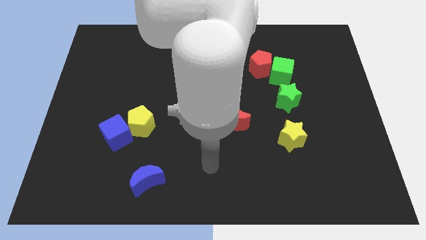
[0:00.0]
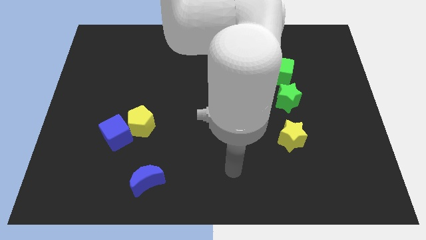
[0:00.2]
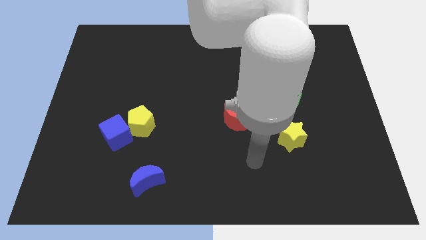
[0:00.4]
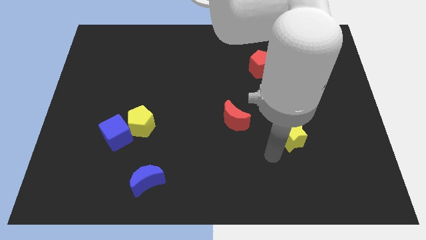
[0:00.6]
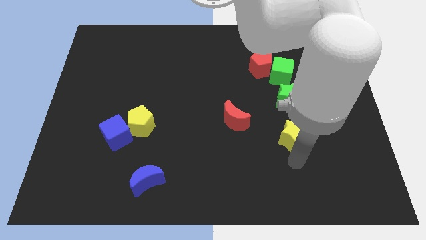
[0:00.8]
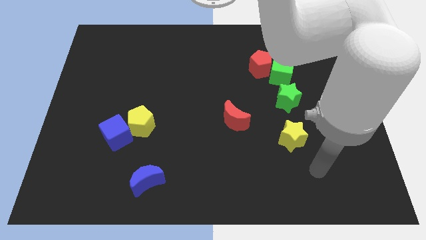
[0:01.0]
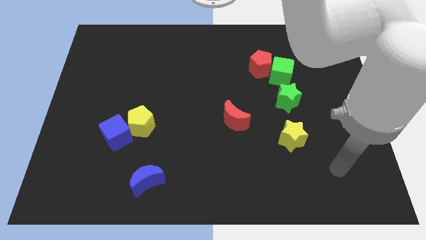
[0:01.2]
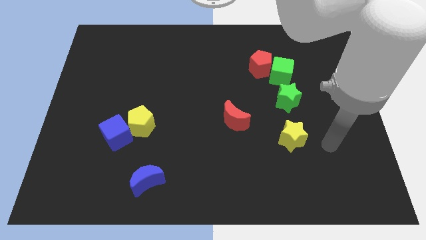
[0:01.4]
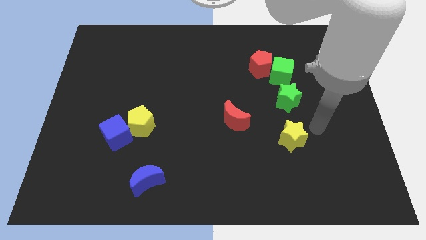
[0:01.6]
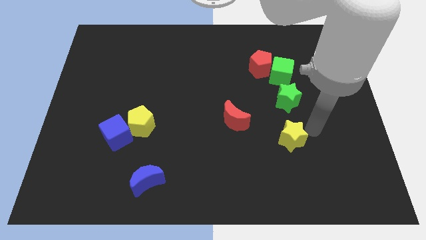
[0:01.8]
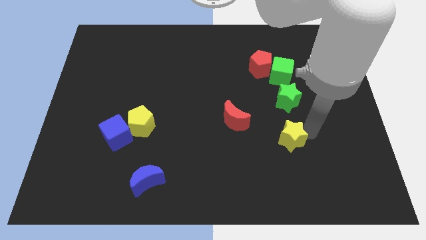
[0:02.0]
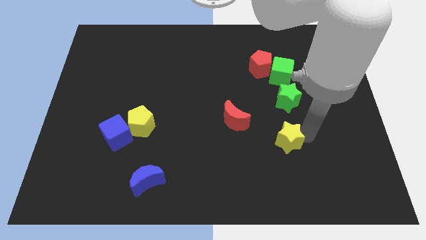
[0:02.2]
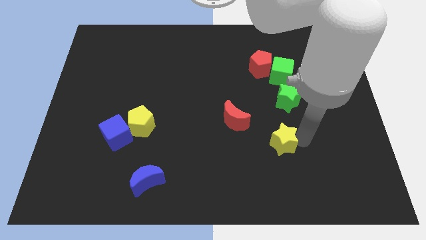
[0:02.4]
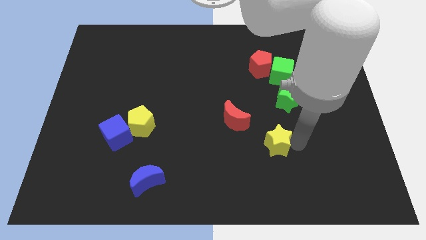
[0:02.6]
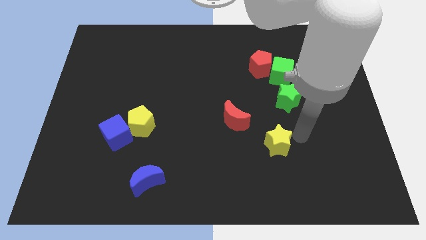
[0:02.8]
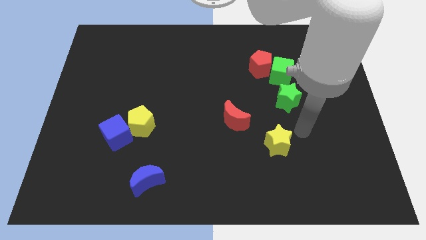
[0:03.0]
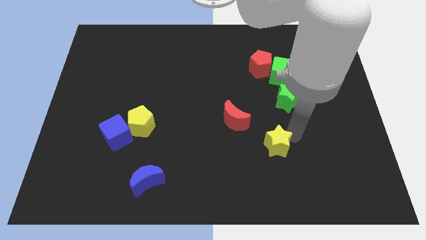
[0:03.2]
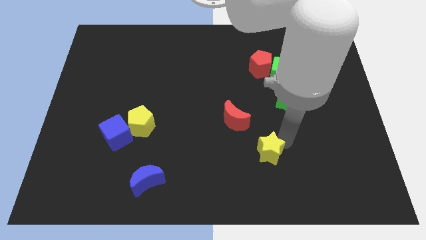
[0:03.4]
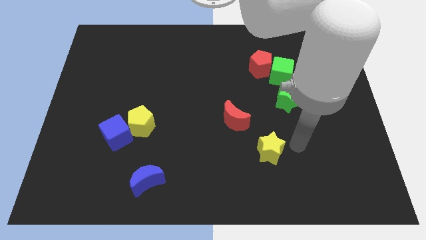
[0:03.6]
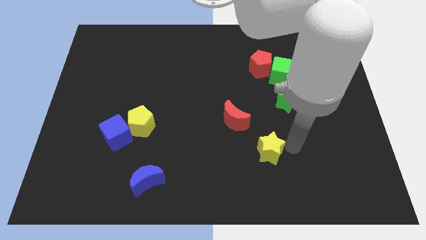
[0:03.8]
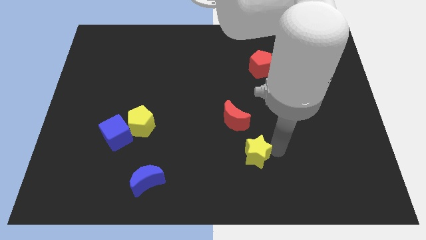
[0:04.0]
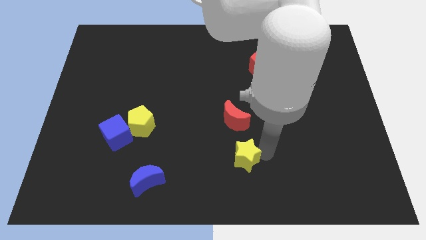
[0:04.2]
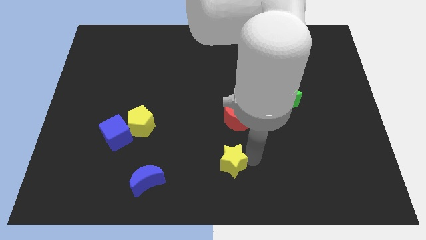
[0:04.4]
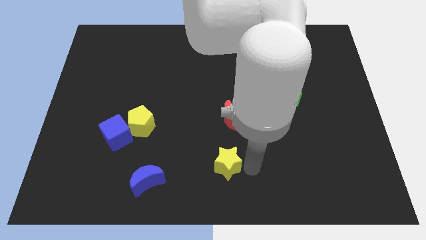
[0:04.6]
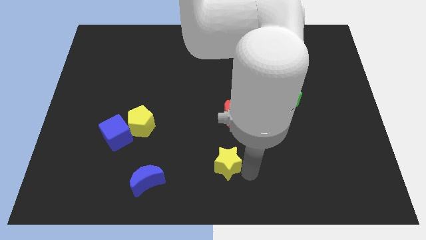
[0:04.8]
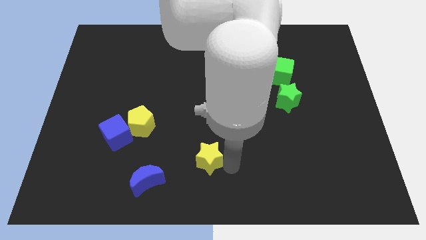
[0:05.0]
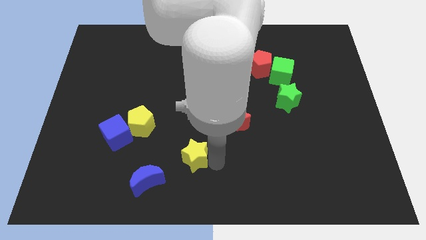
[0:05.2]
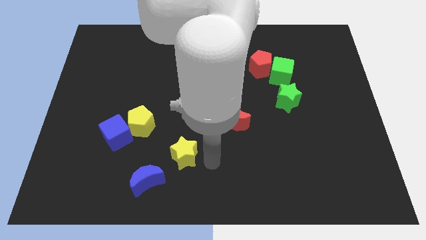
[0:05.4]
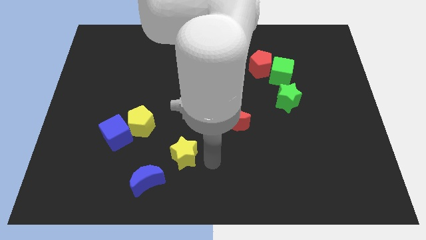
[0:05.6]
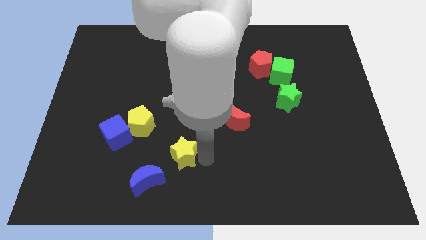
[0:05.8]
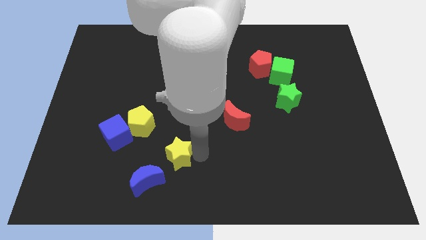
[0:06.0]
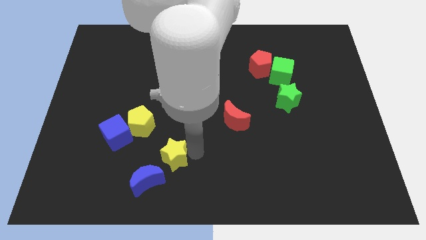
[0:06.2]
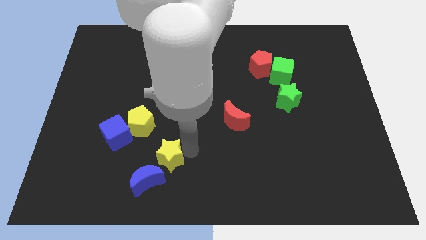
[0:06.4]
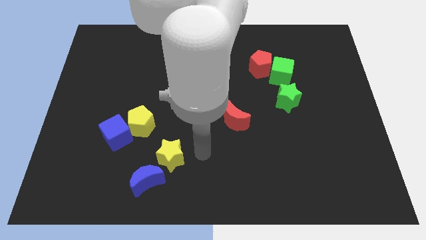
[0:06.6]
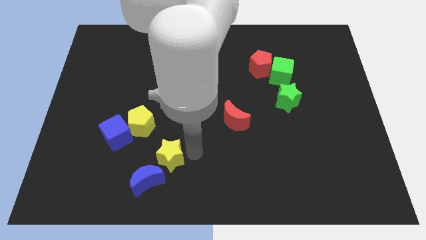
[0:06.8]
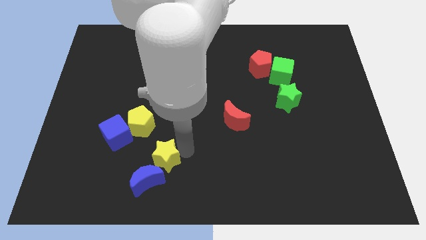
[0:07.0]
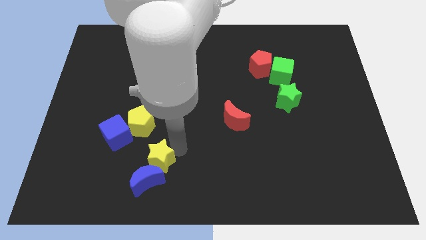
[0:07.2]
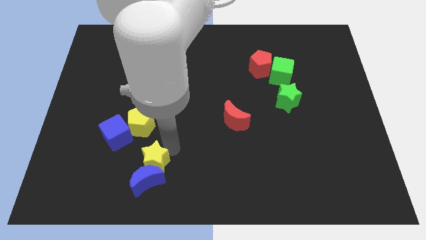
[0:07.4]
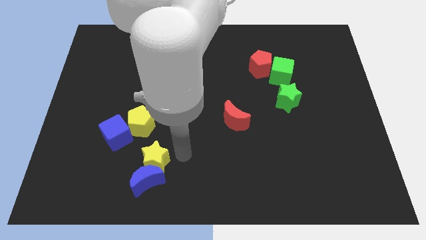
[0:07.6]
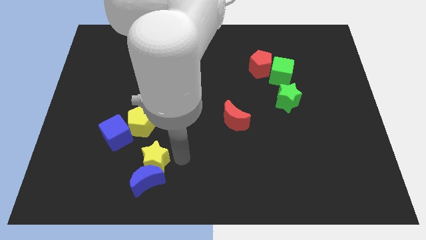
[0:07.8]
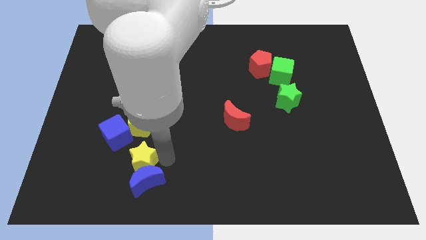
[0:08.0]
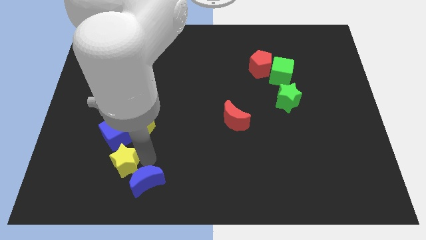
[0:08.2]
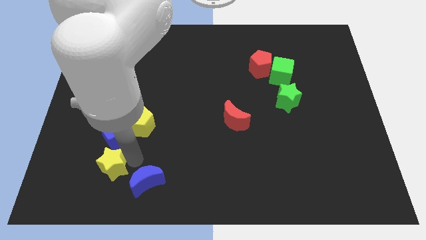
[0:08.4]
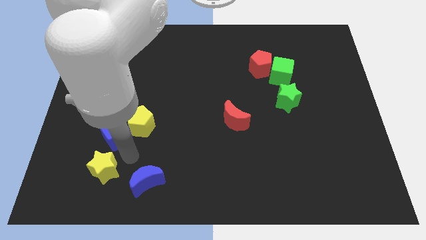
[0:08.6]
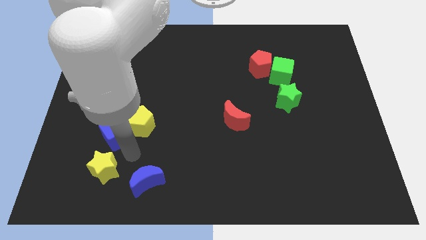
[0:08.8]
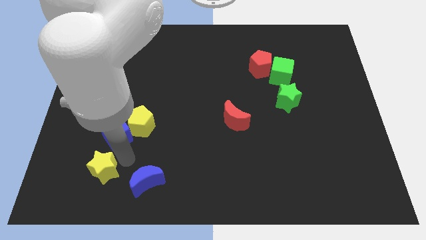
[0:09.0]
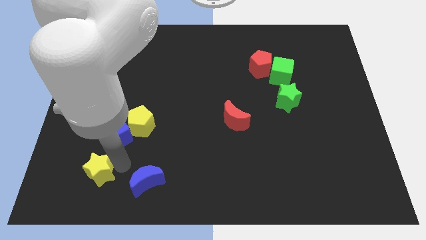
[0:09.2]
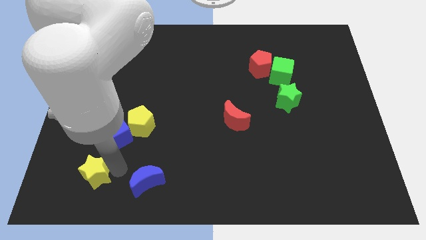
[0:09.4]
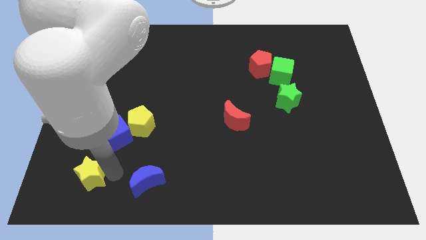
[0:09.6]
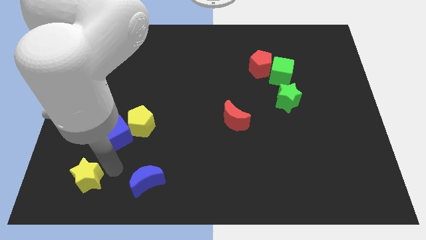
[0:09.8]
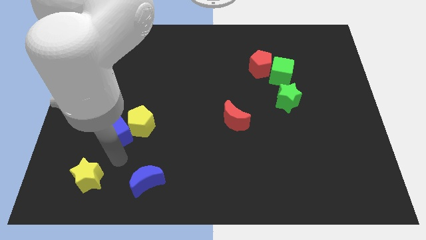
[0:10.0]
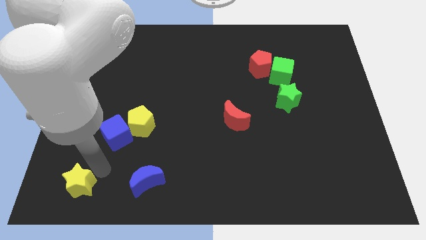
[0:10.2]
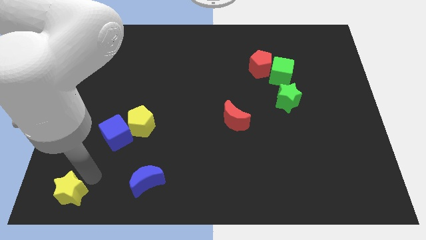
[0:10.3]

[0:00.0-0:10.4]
move the yellow star to the lower left corner

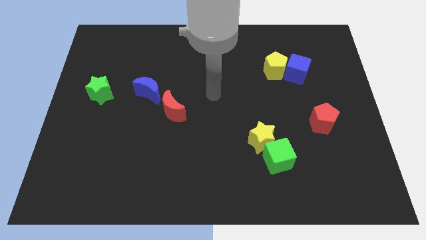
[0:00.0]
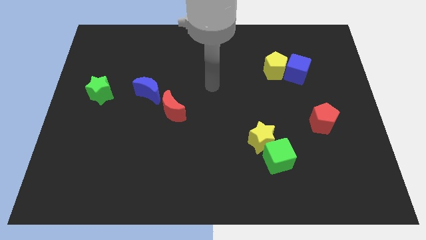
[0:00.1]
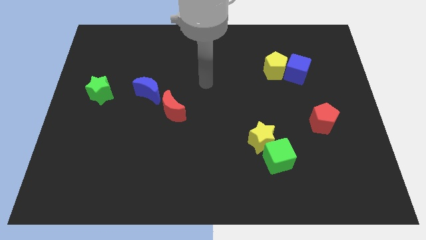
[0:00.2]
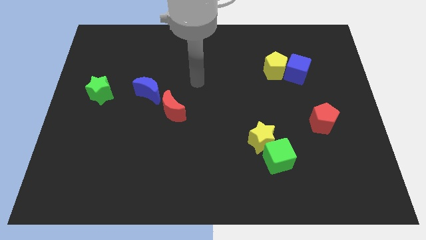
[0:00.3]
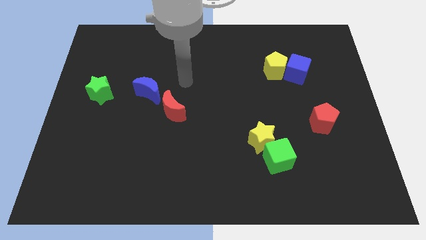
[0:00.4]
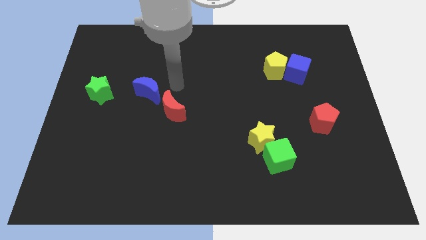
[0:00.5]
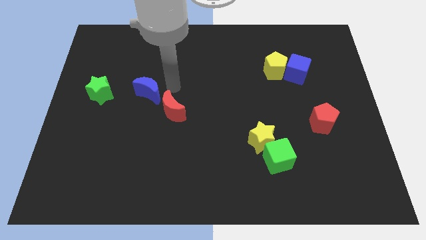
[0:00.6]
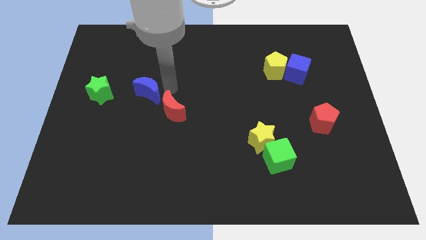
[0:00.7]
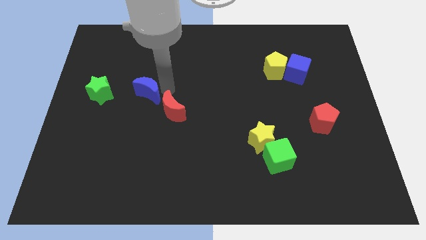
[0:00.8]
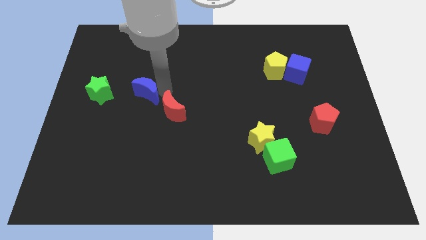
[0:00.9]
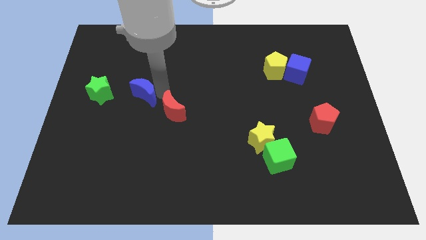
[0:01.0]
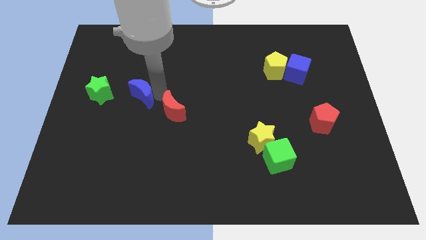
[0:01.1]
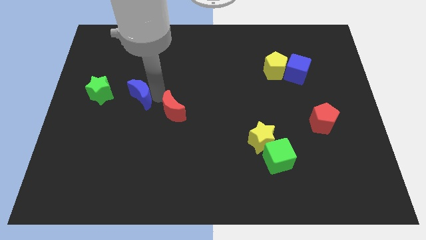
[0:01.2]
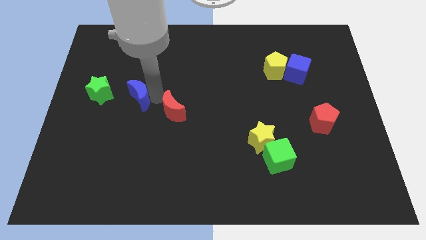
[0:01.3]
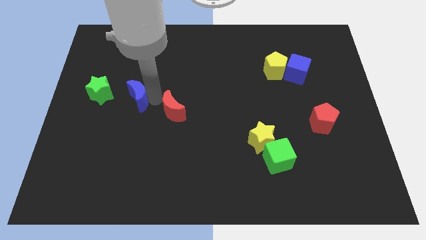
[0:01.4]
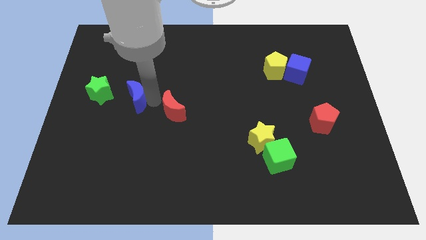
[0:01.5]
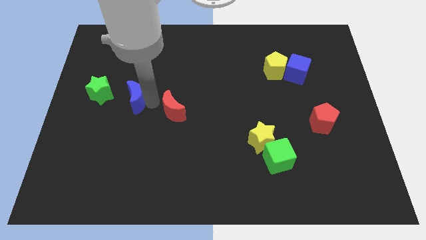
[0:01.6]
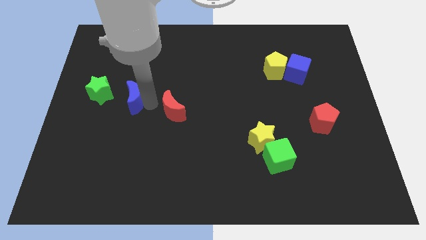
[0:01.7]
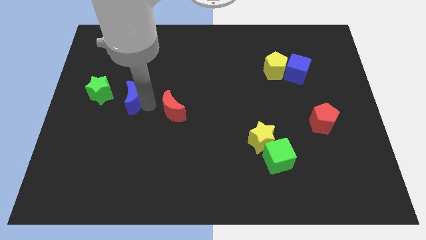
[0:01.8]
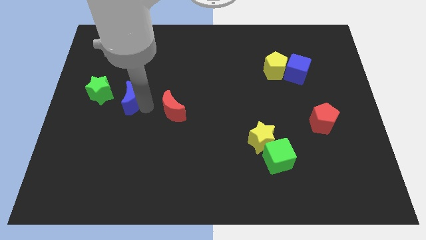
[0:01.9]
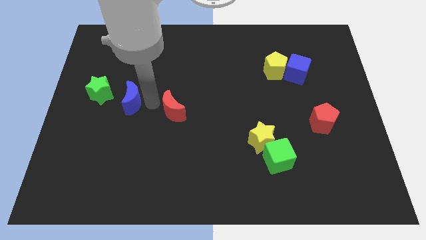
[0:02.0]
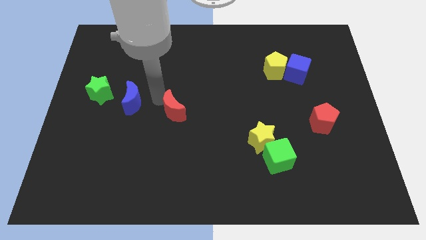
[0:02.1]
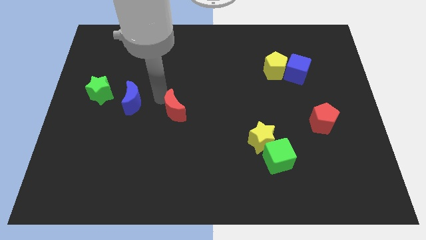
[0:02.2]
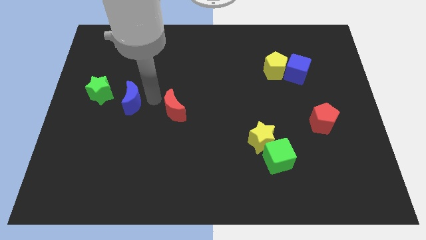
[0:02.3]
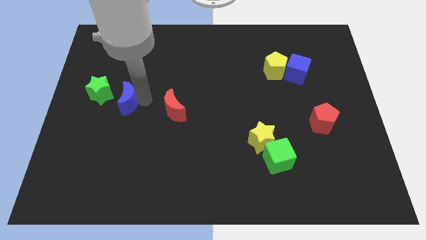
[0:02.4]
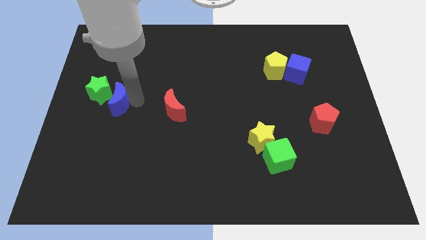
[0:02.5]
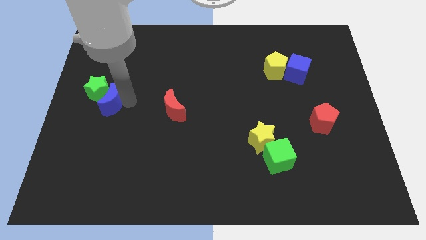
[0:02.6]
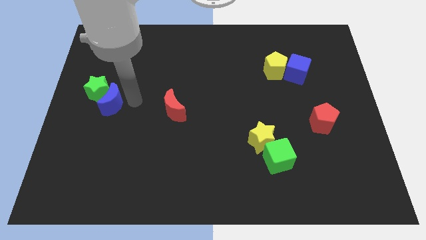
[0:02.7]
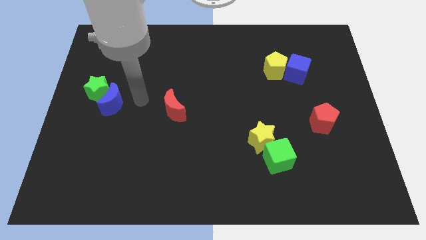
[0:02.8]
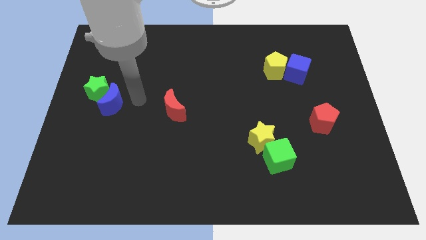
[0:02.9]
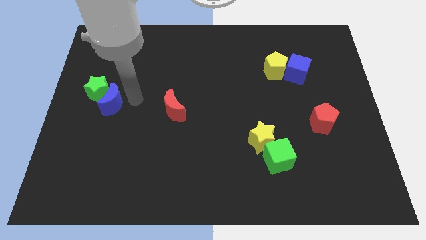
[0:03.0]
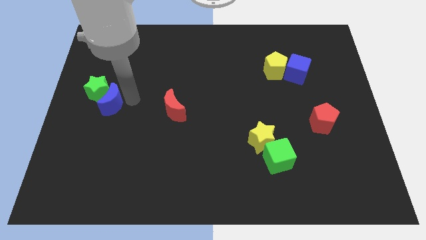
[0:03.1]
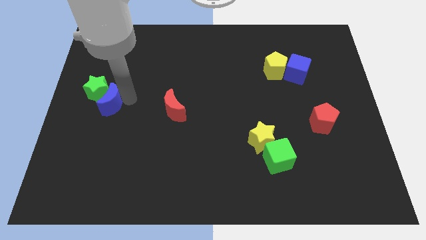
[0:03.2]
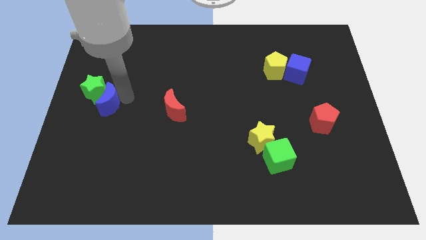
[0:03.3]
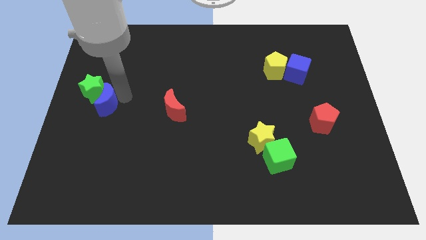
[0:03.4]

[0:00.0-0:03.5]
slide the blue moon to the left side of the board
